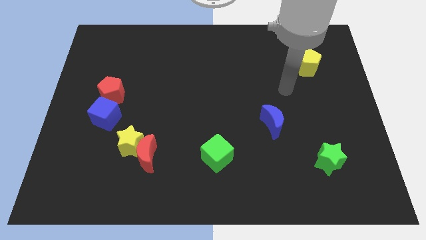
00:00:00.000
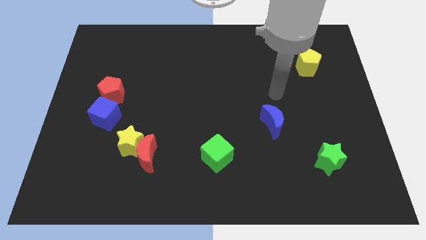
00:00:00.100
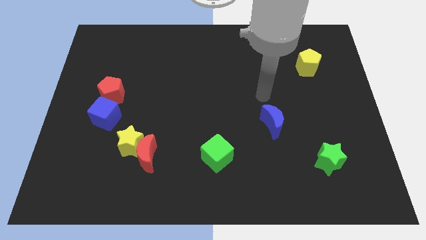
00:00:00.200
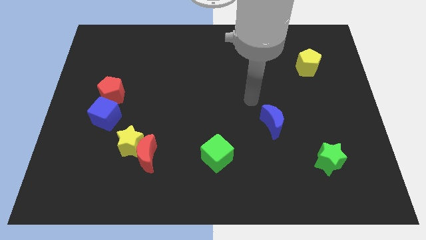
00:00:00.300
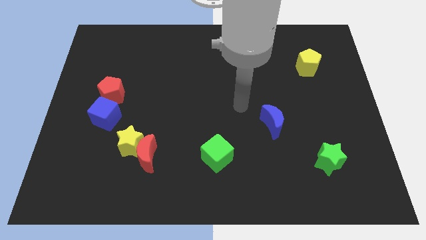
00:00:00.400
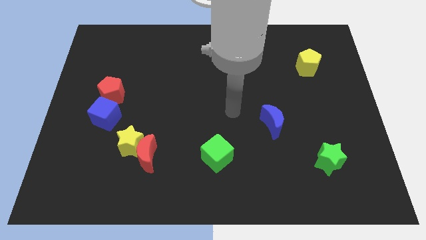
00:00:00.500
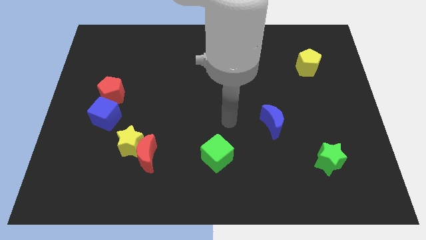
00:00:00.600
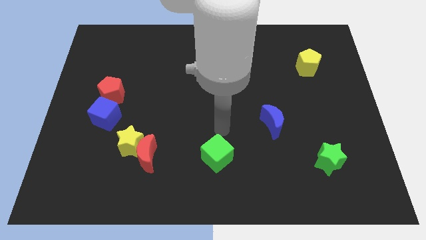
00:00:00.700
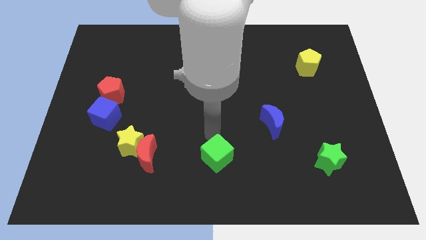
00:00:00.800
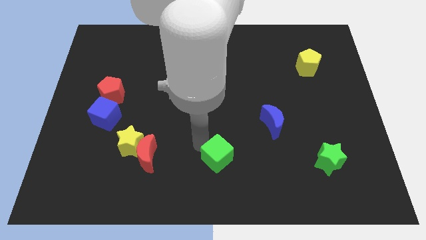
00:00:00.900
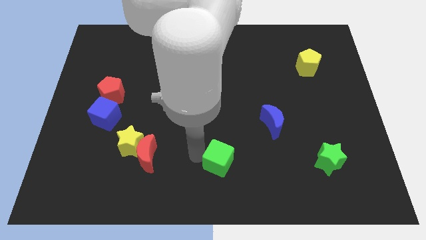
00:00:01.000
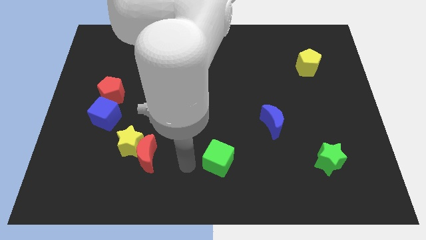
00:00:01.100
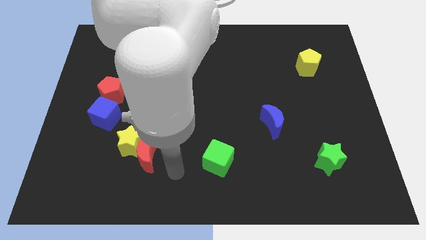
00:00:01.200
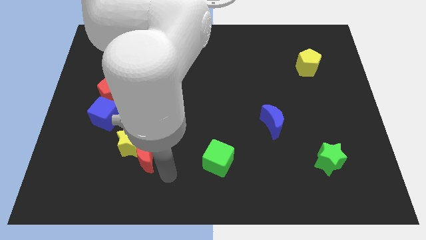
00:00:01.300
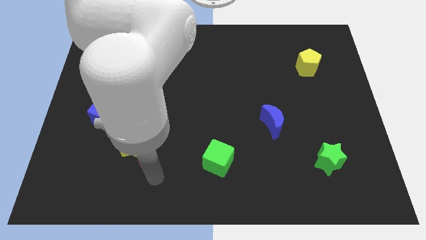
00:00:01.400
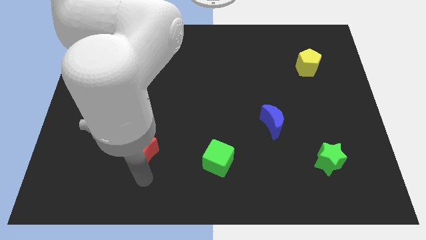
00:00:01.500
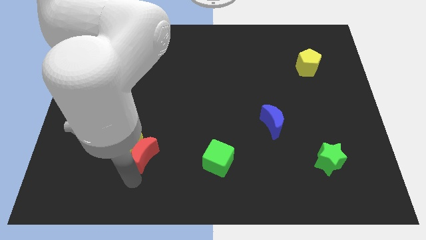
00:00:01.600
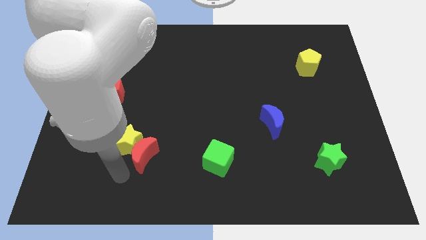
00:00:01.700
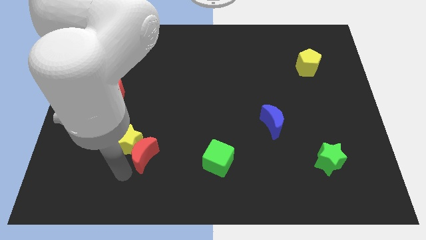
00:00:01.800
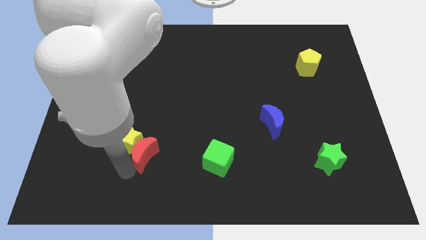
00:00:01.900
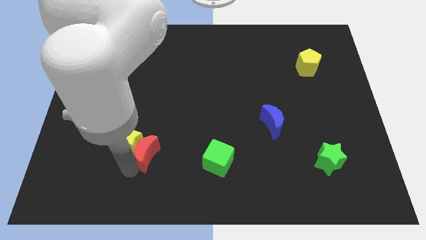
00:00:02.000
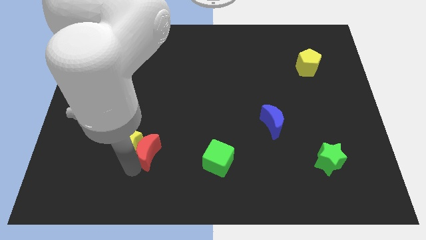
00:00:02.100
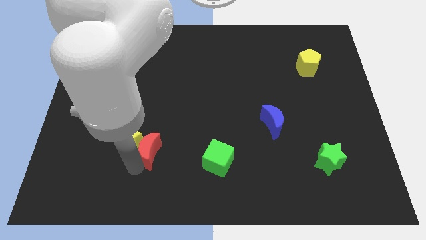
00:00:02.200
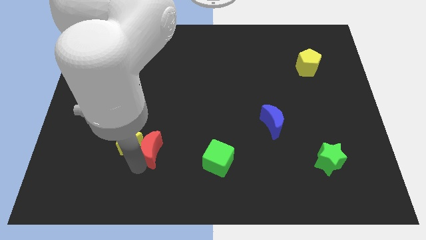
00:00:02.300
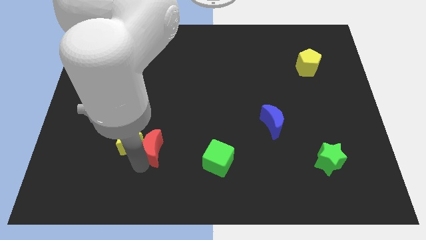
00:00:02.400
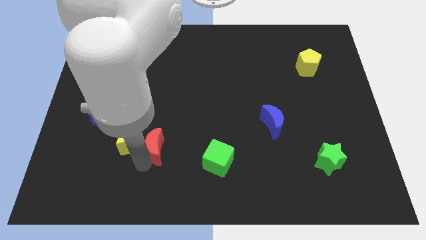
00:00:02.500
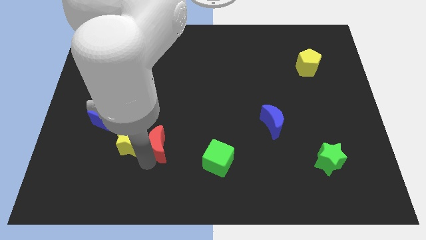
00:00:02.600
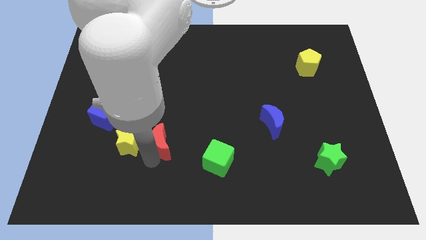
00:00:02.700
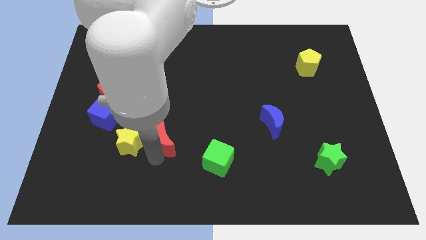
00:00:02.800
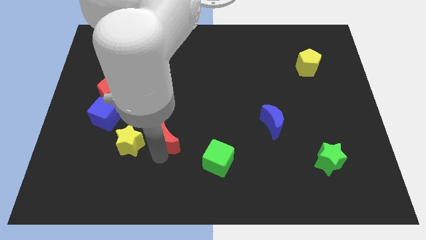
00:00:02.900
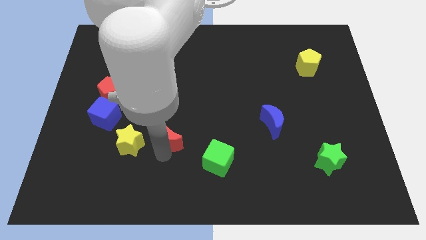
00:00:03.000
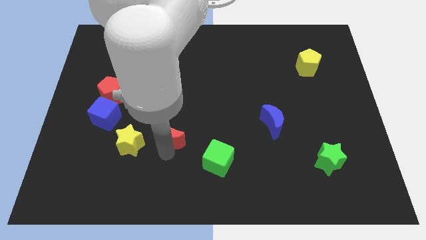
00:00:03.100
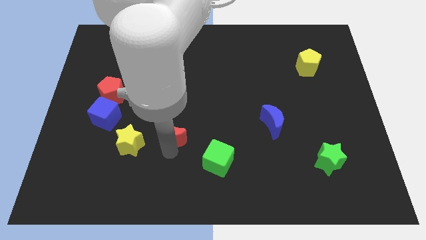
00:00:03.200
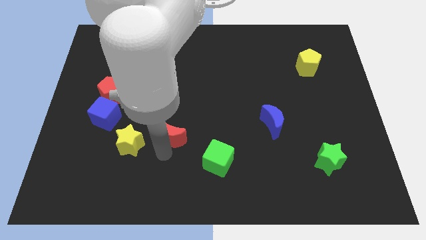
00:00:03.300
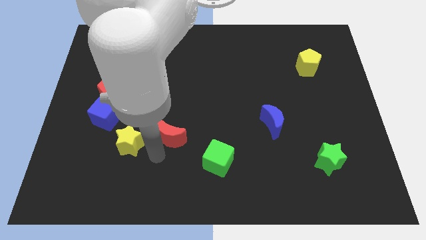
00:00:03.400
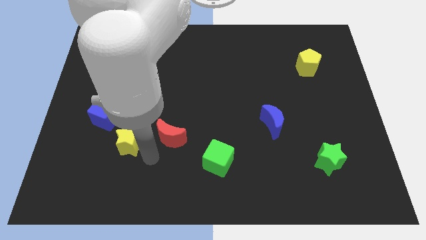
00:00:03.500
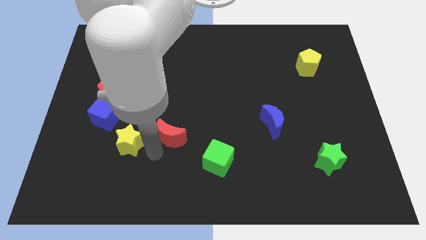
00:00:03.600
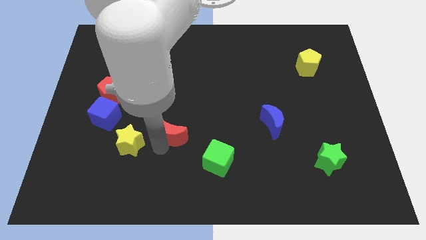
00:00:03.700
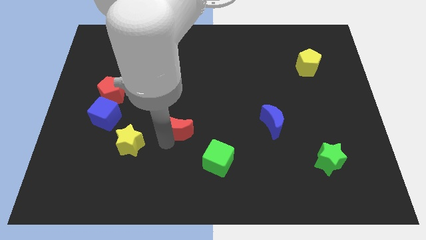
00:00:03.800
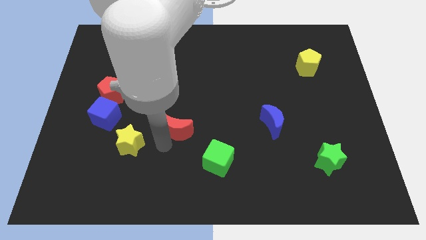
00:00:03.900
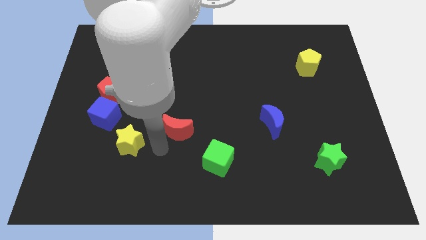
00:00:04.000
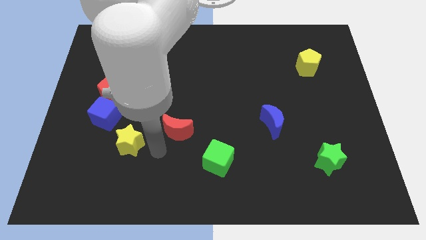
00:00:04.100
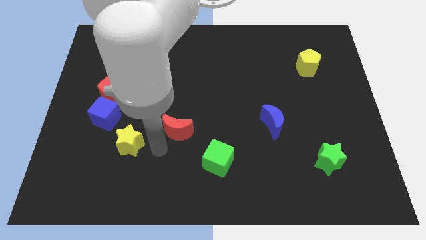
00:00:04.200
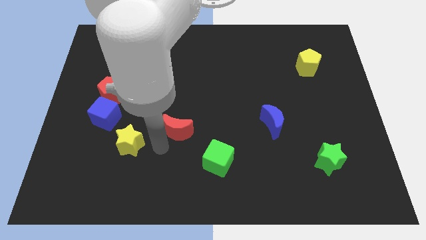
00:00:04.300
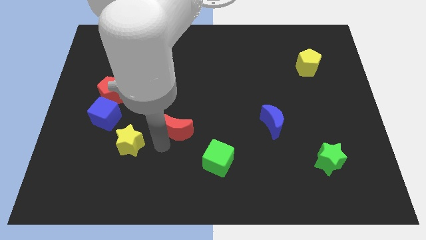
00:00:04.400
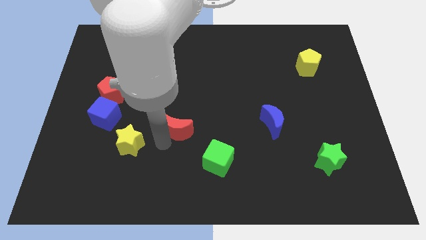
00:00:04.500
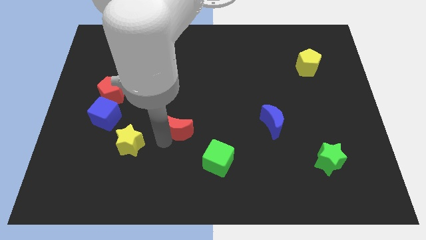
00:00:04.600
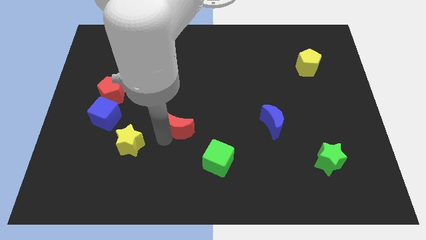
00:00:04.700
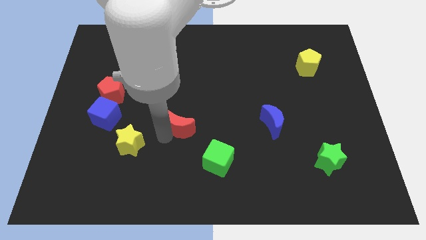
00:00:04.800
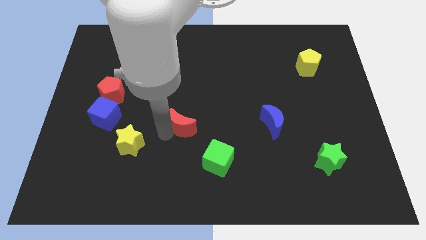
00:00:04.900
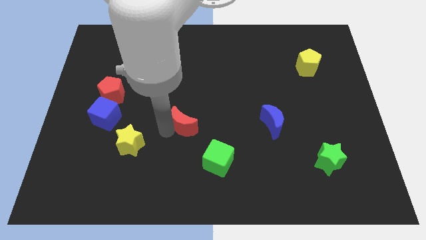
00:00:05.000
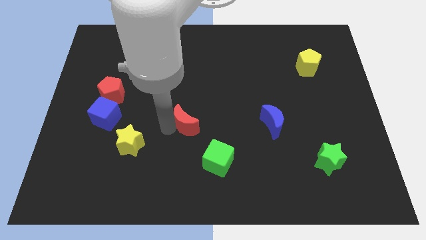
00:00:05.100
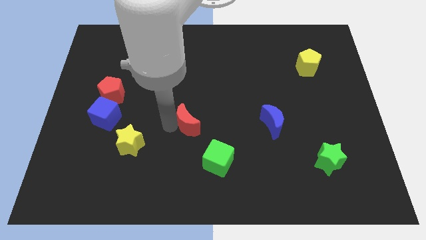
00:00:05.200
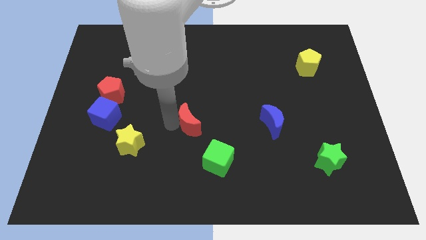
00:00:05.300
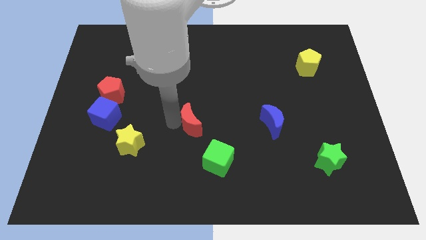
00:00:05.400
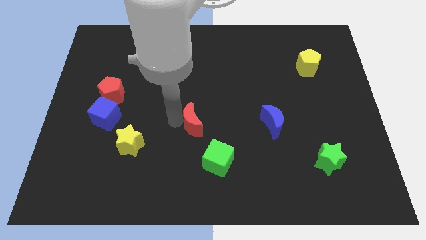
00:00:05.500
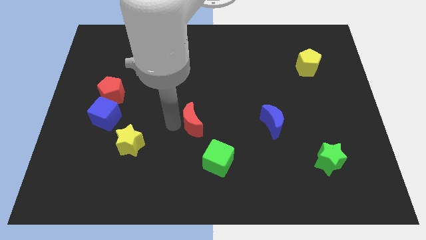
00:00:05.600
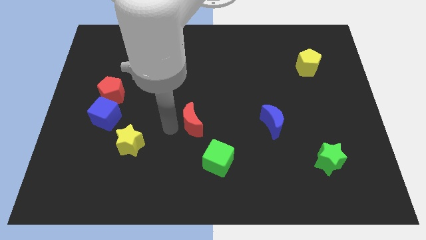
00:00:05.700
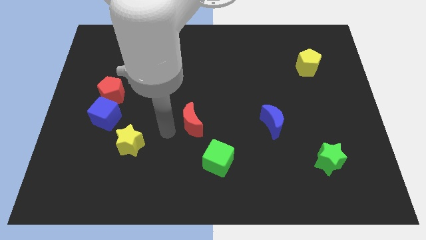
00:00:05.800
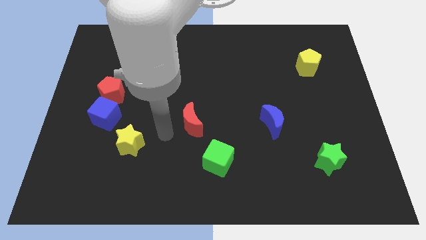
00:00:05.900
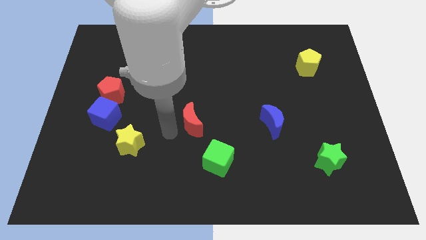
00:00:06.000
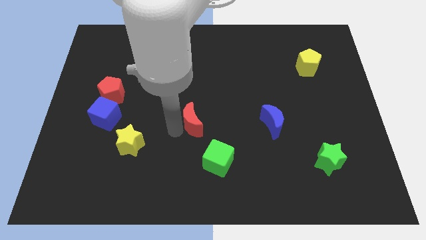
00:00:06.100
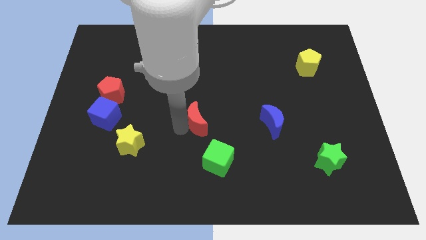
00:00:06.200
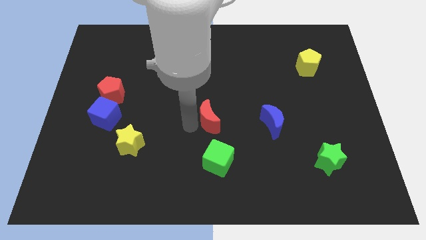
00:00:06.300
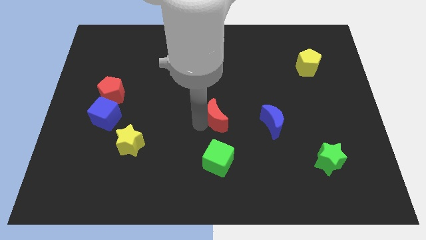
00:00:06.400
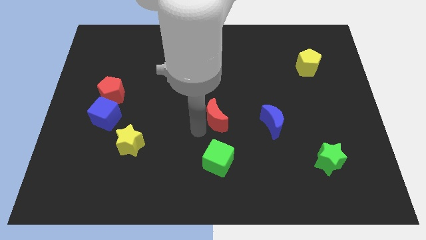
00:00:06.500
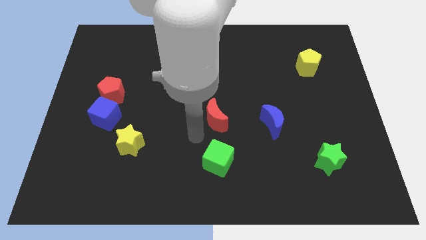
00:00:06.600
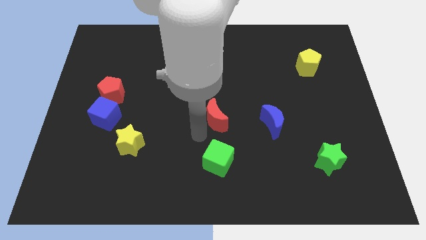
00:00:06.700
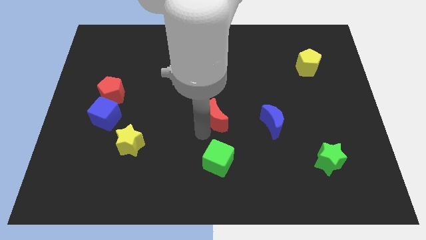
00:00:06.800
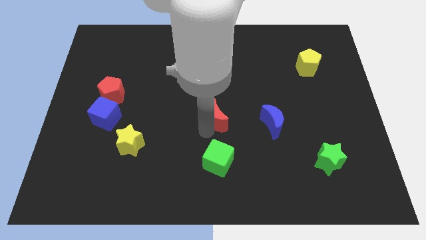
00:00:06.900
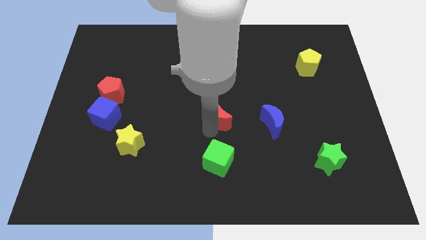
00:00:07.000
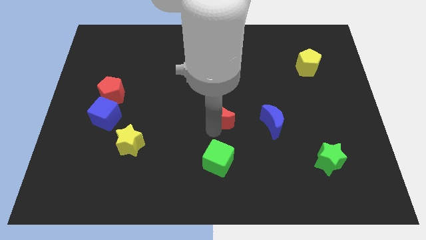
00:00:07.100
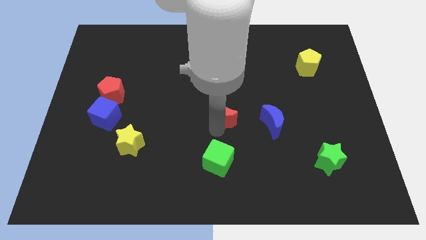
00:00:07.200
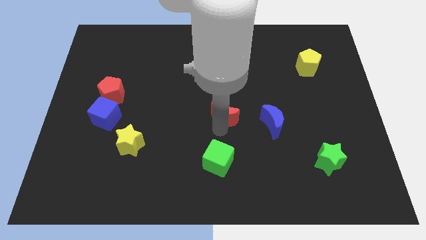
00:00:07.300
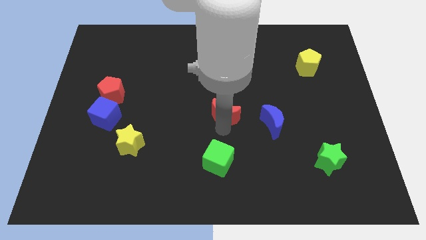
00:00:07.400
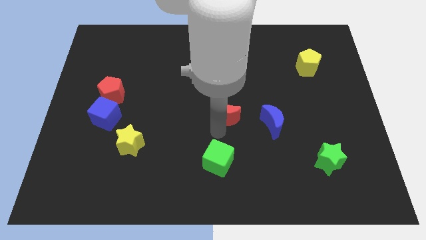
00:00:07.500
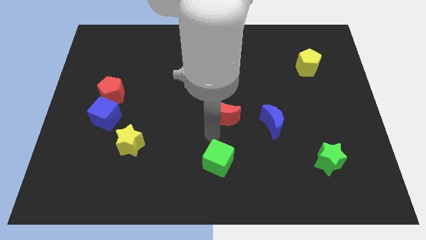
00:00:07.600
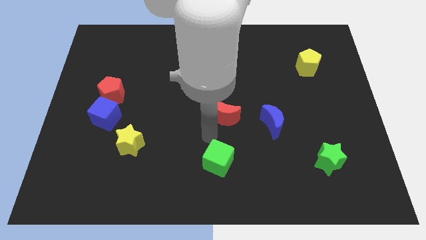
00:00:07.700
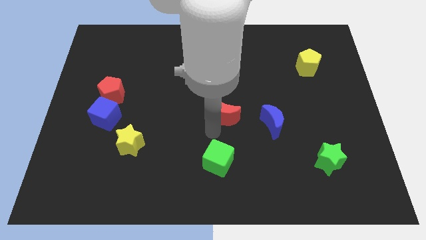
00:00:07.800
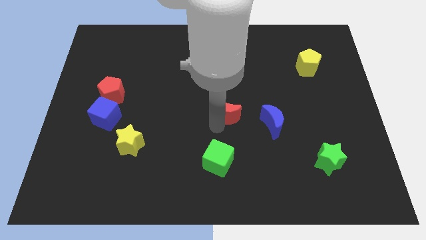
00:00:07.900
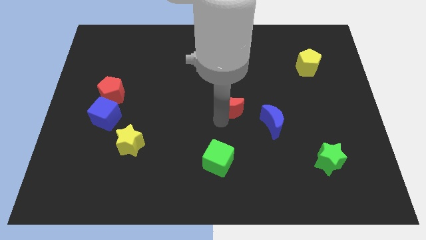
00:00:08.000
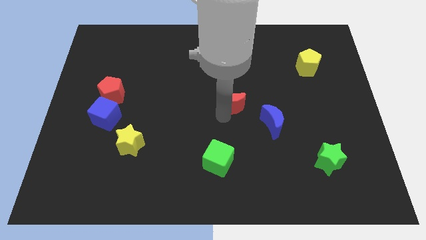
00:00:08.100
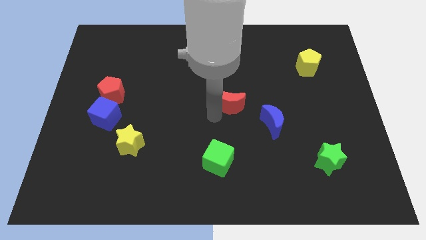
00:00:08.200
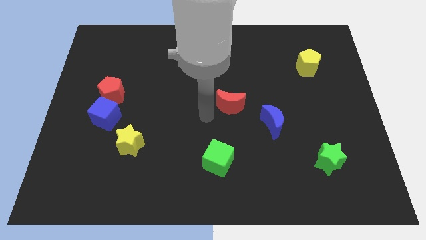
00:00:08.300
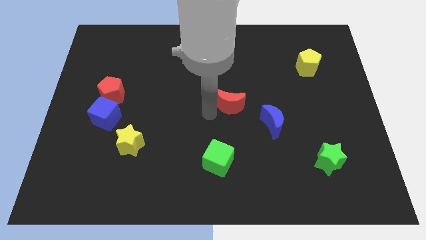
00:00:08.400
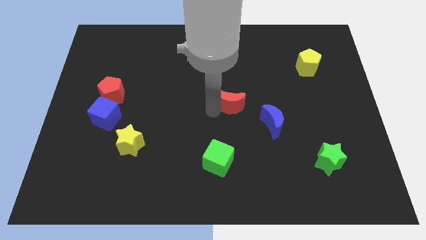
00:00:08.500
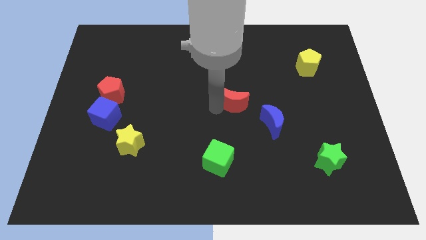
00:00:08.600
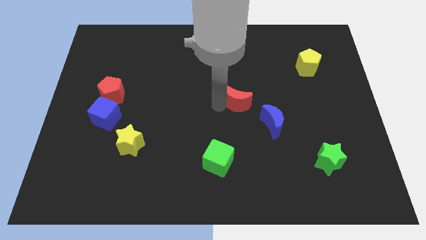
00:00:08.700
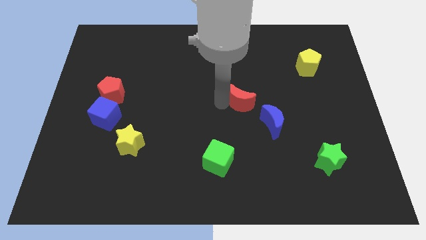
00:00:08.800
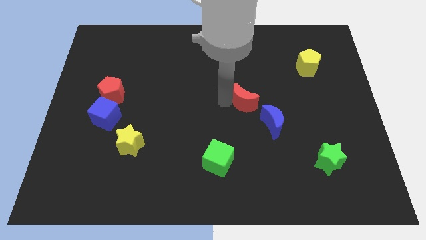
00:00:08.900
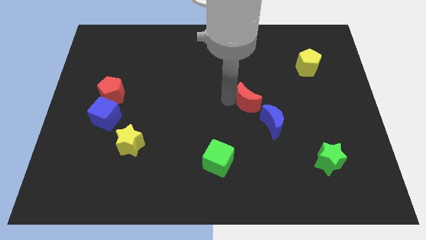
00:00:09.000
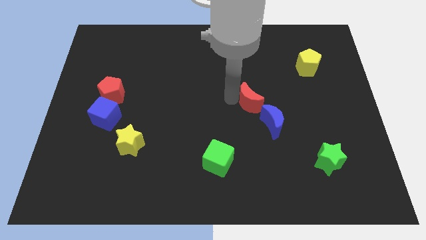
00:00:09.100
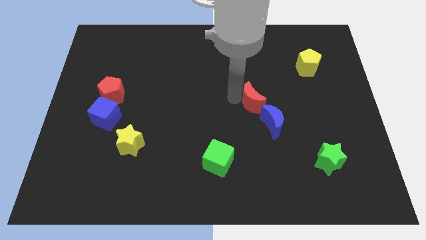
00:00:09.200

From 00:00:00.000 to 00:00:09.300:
slide the red moon above the blue moon
